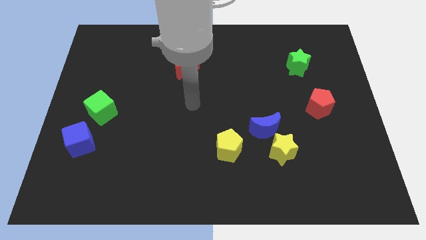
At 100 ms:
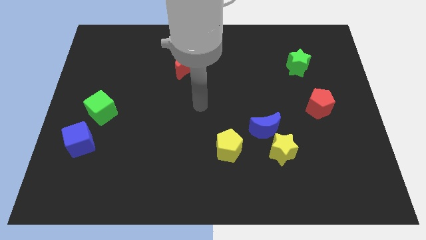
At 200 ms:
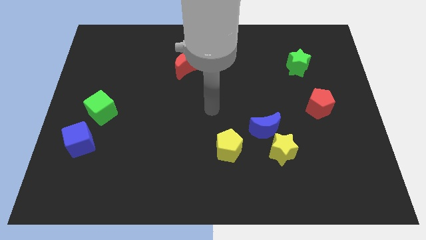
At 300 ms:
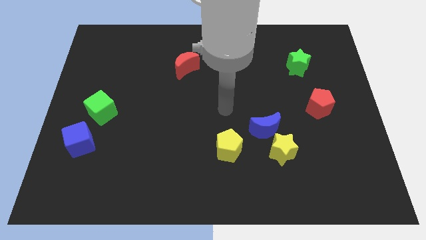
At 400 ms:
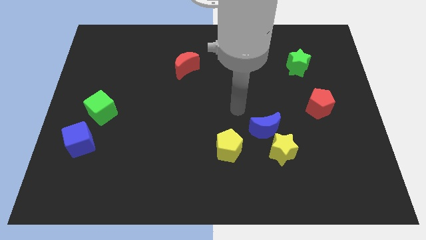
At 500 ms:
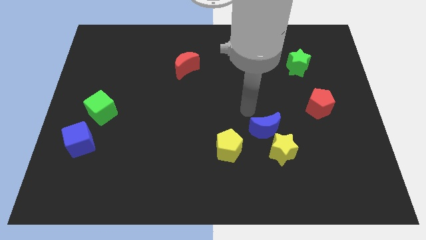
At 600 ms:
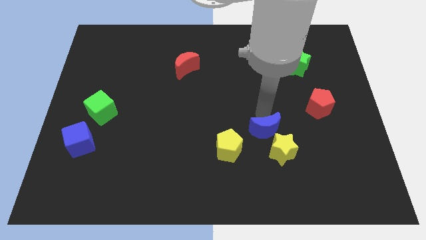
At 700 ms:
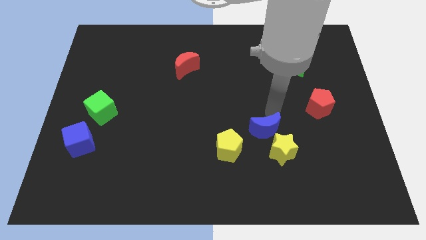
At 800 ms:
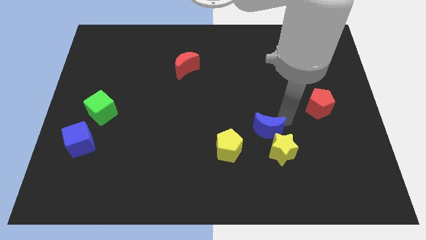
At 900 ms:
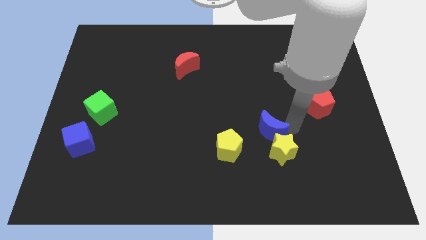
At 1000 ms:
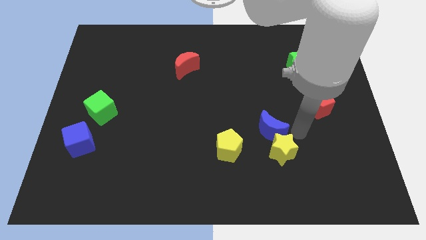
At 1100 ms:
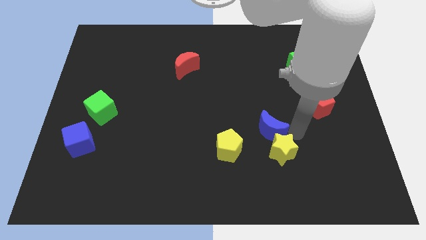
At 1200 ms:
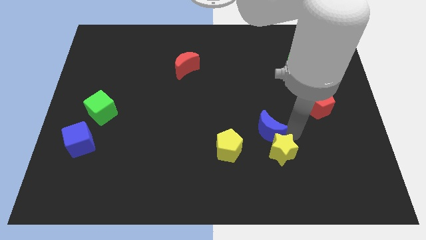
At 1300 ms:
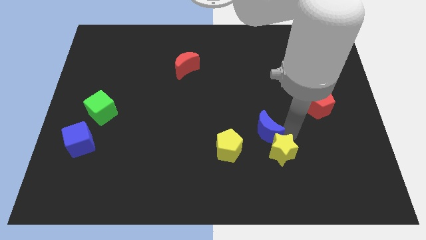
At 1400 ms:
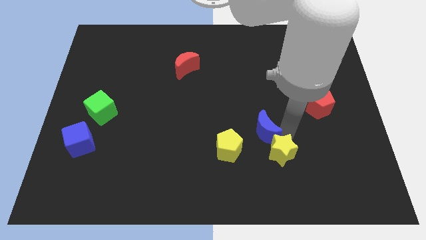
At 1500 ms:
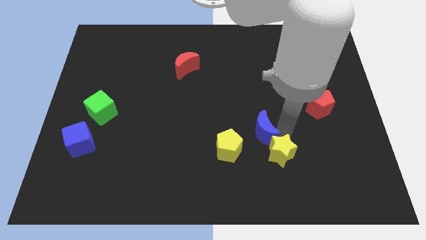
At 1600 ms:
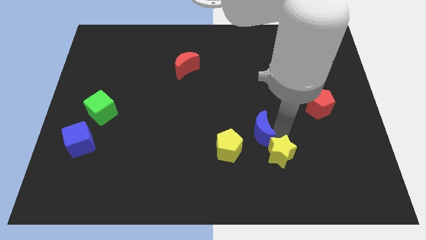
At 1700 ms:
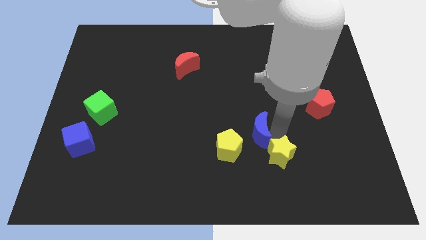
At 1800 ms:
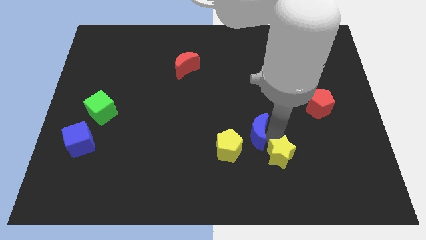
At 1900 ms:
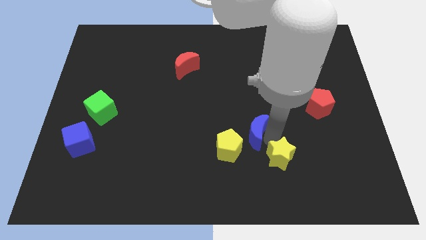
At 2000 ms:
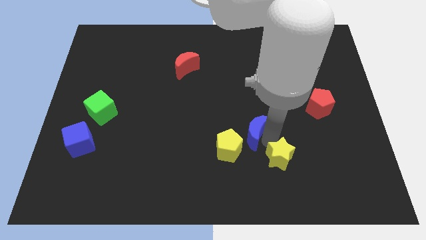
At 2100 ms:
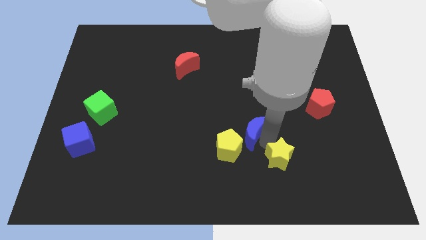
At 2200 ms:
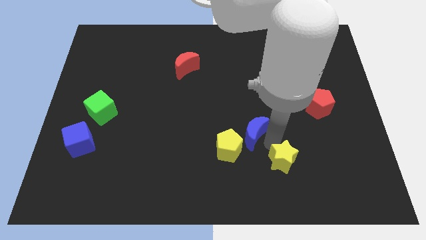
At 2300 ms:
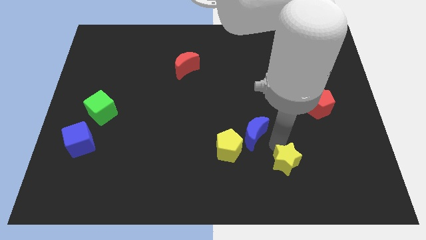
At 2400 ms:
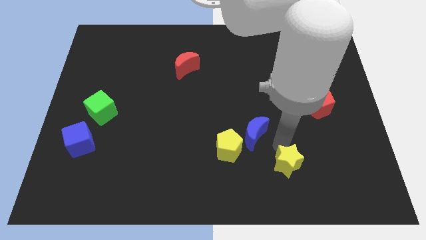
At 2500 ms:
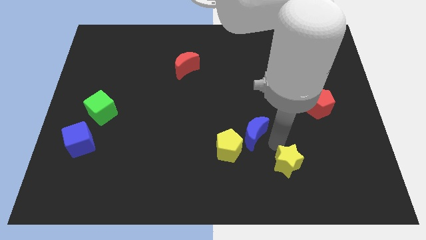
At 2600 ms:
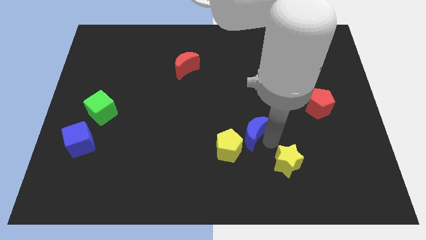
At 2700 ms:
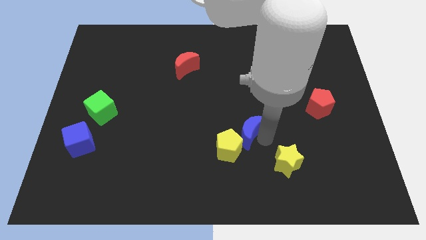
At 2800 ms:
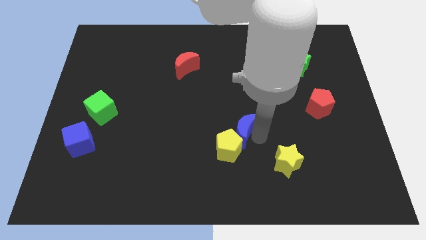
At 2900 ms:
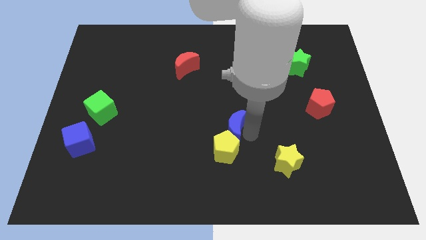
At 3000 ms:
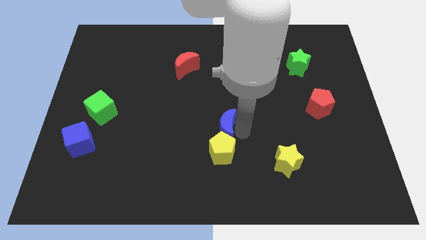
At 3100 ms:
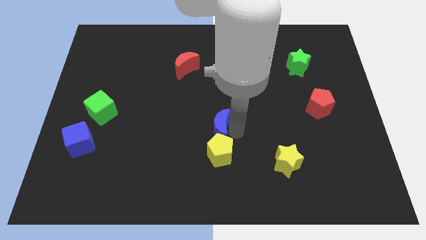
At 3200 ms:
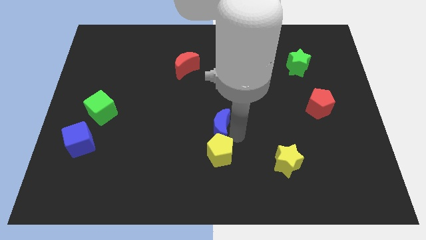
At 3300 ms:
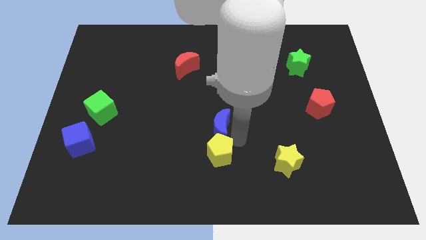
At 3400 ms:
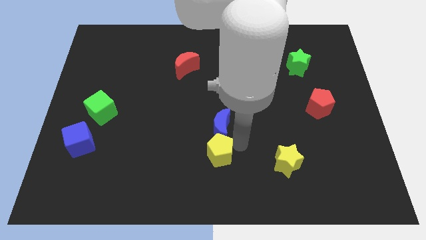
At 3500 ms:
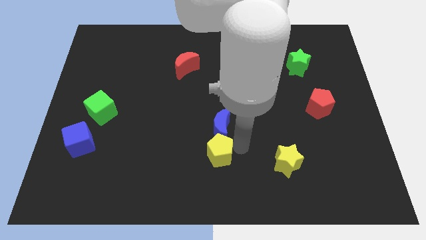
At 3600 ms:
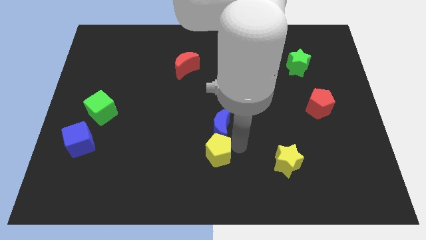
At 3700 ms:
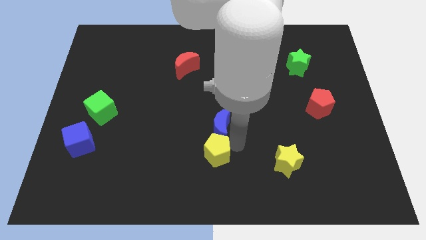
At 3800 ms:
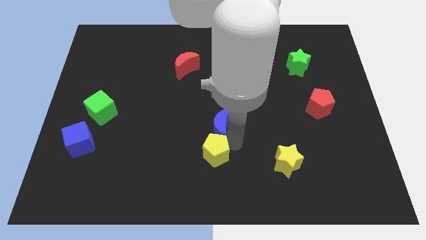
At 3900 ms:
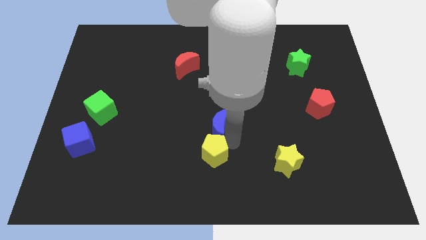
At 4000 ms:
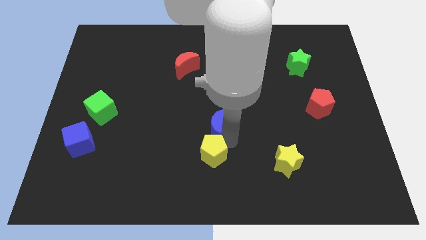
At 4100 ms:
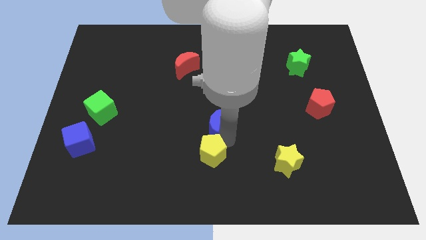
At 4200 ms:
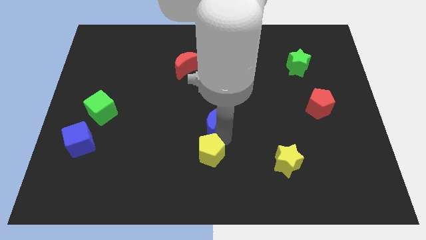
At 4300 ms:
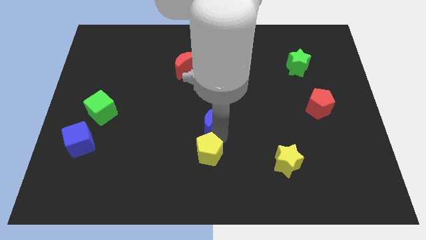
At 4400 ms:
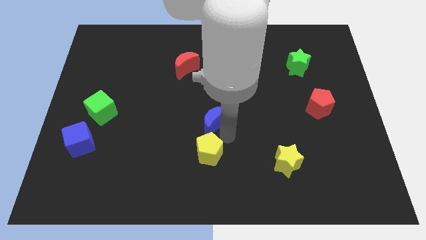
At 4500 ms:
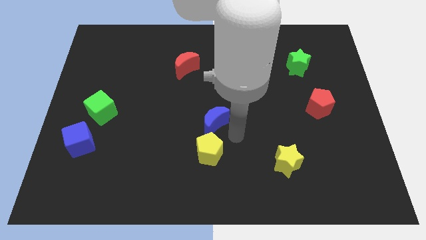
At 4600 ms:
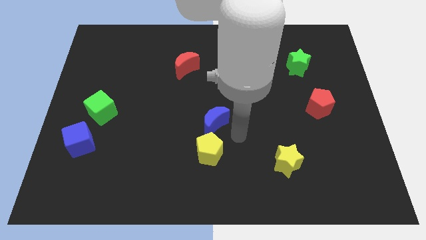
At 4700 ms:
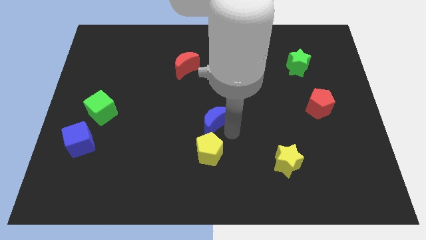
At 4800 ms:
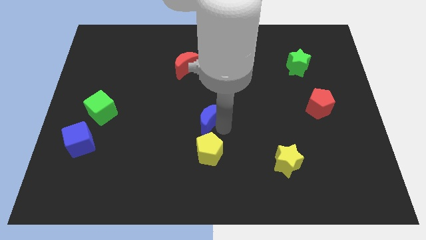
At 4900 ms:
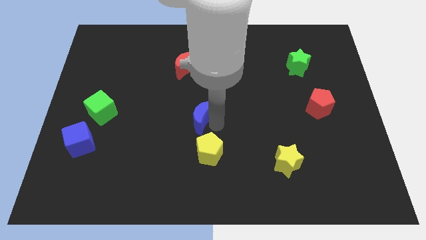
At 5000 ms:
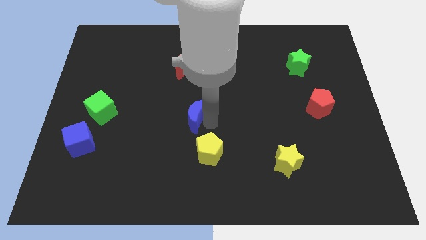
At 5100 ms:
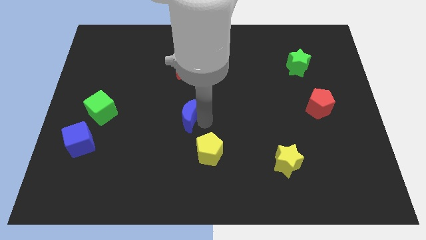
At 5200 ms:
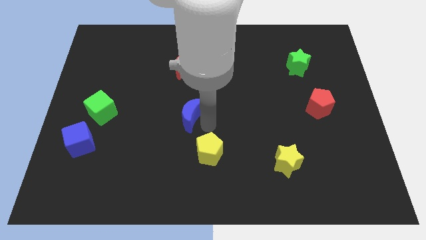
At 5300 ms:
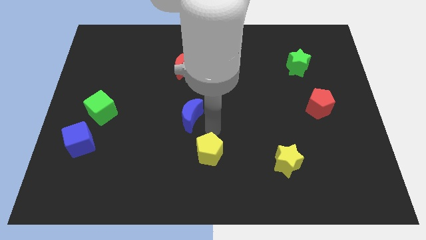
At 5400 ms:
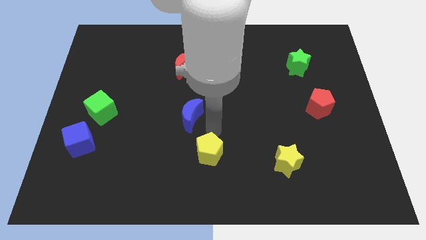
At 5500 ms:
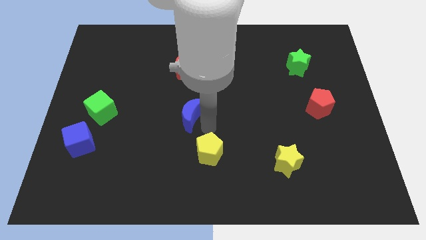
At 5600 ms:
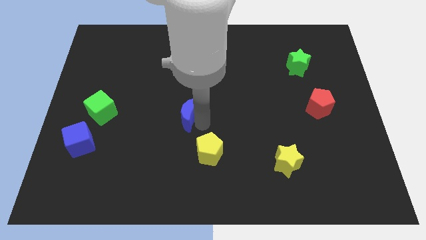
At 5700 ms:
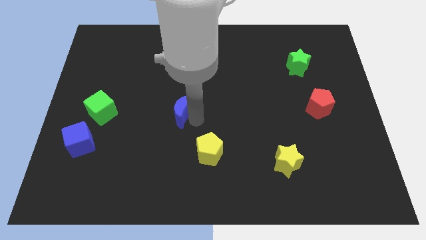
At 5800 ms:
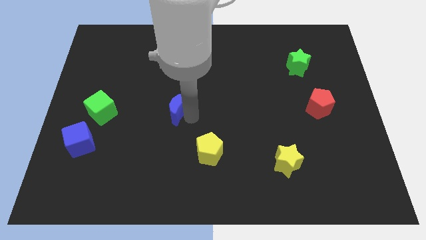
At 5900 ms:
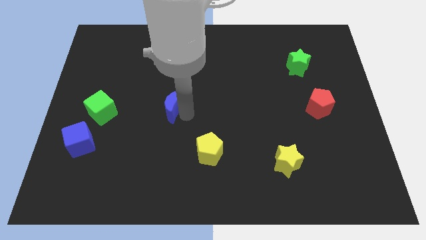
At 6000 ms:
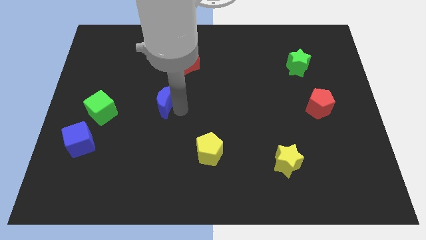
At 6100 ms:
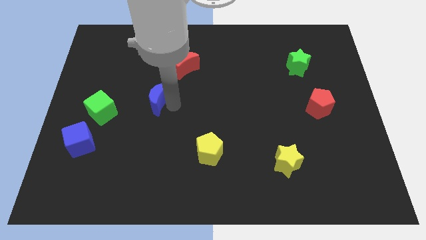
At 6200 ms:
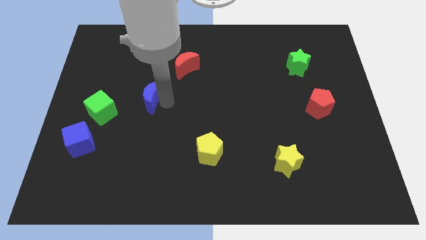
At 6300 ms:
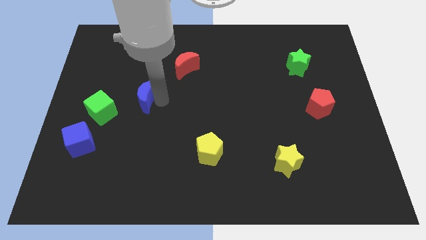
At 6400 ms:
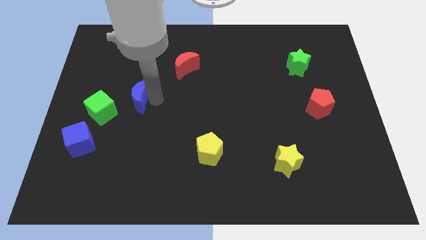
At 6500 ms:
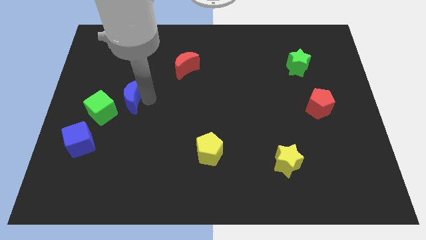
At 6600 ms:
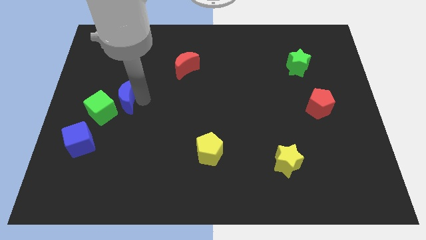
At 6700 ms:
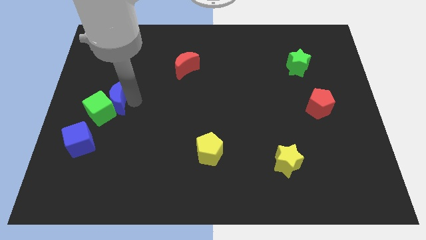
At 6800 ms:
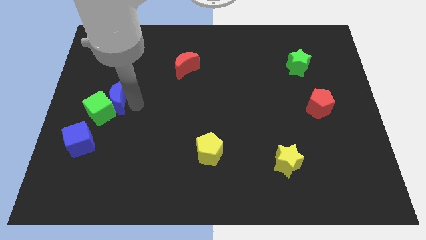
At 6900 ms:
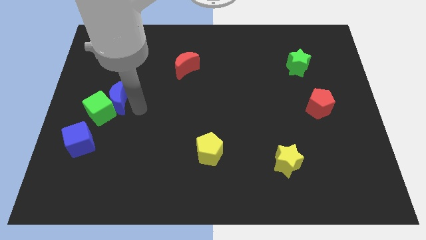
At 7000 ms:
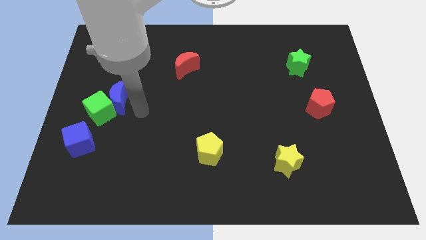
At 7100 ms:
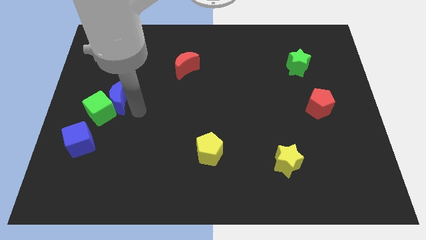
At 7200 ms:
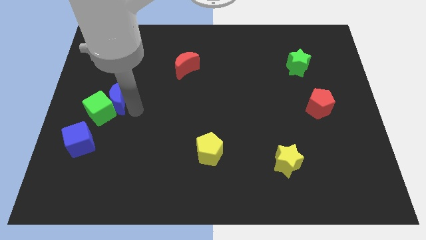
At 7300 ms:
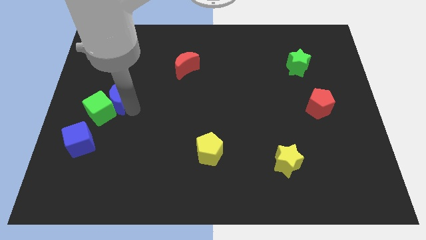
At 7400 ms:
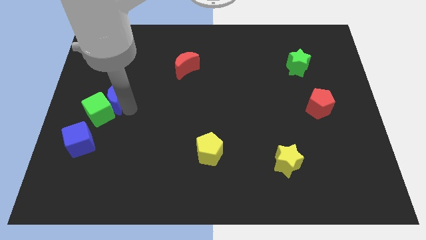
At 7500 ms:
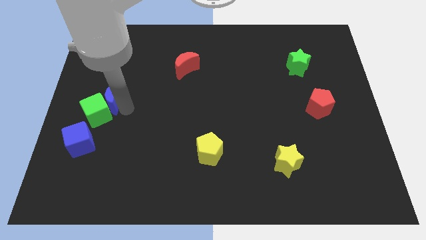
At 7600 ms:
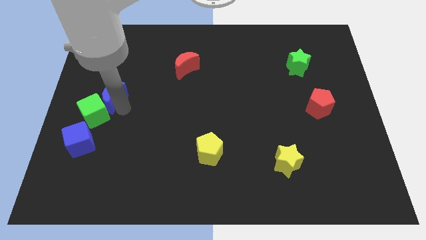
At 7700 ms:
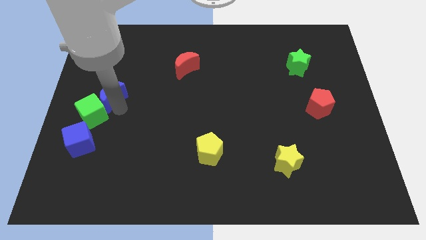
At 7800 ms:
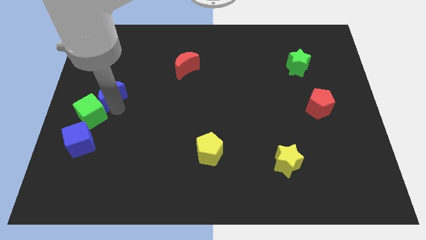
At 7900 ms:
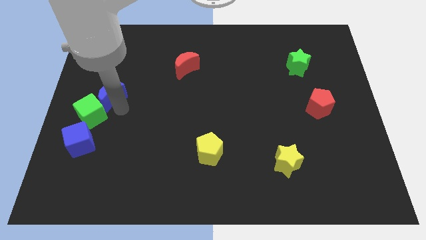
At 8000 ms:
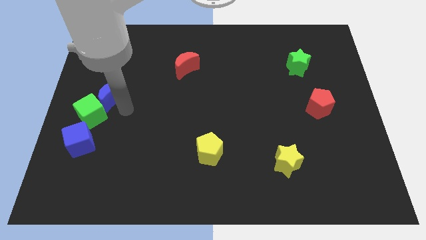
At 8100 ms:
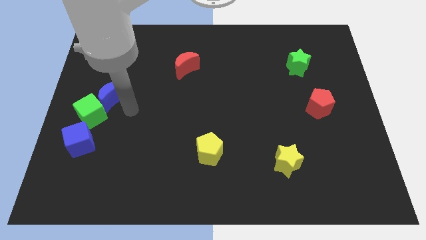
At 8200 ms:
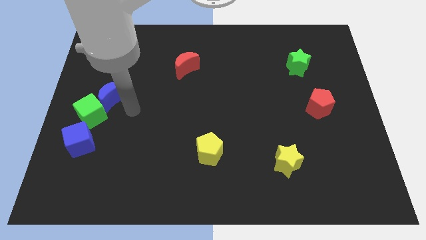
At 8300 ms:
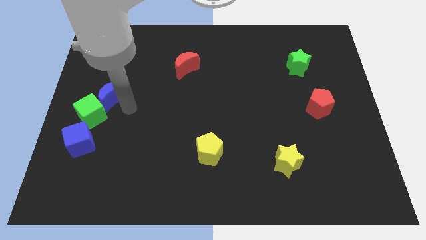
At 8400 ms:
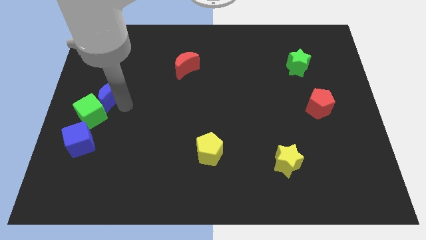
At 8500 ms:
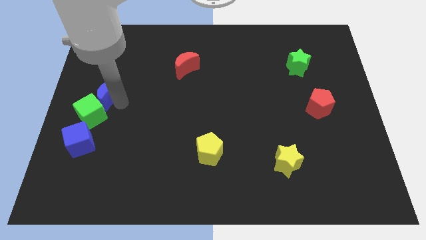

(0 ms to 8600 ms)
put the blue moon to the left side of the board
